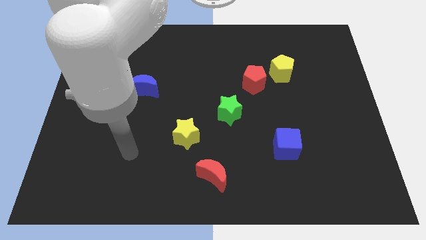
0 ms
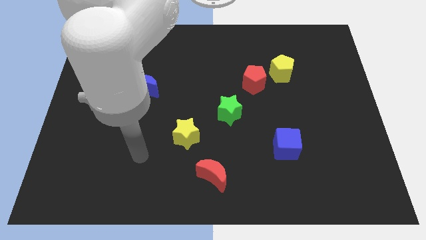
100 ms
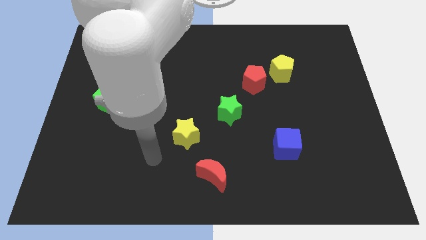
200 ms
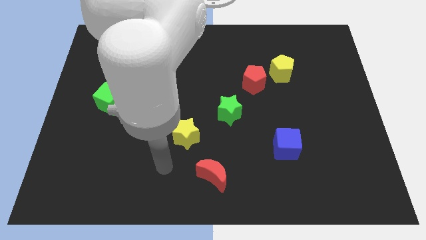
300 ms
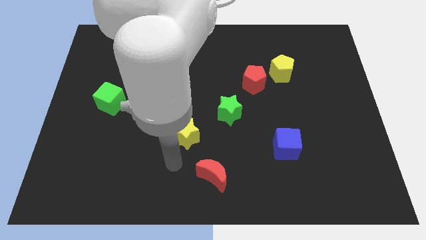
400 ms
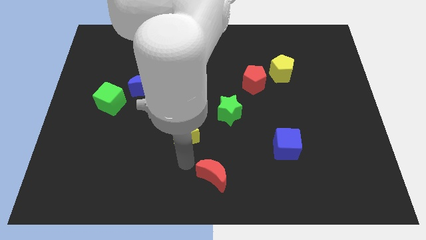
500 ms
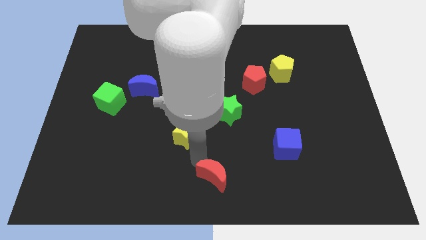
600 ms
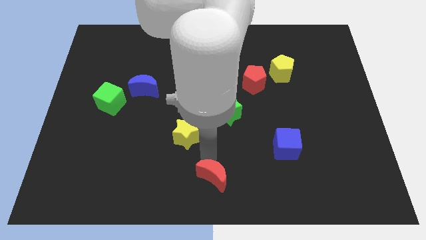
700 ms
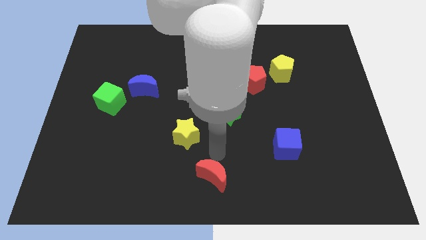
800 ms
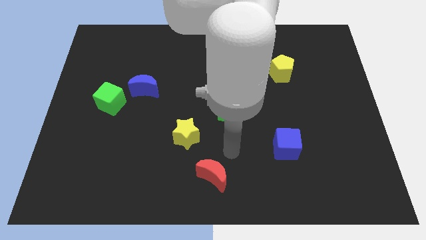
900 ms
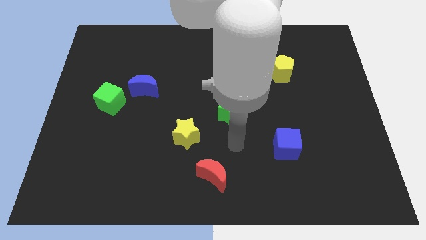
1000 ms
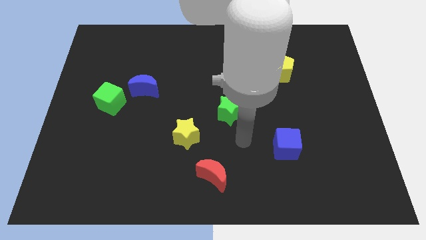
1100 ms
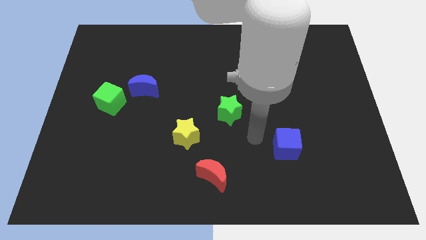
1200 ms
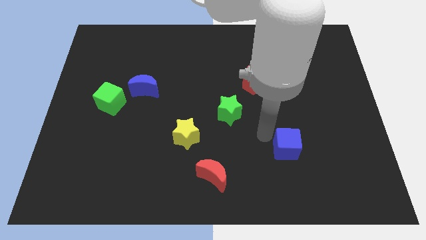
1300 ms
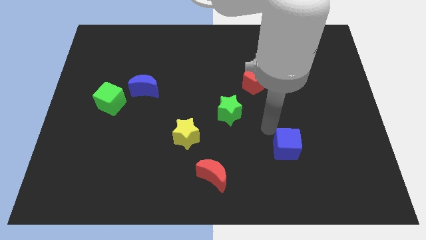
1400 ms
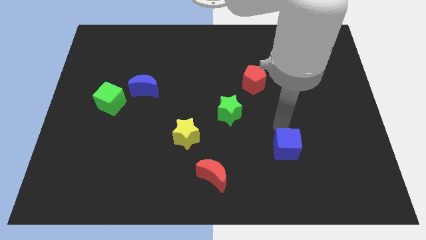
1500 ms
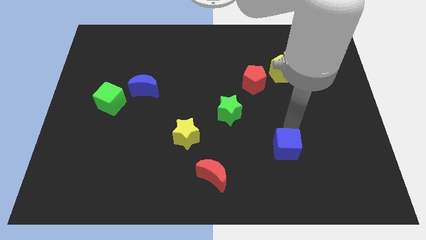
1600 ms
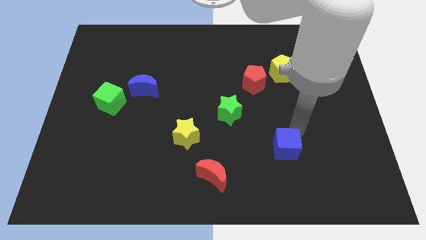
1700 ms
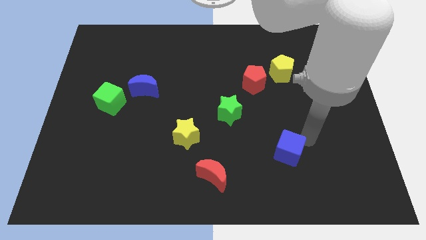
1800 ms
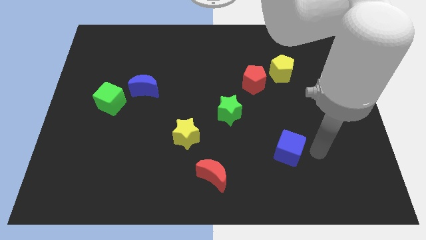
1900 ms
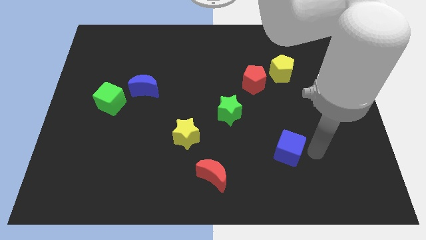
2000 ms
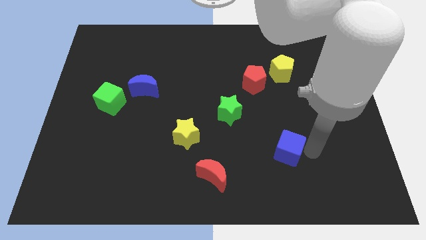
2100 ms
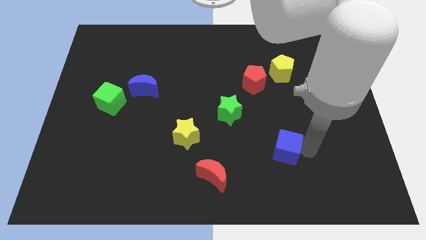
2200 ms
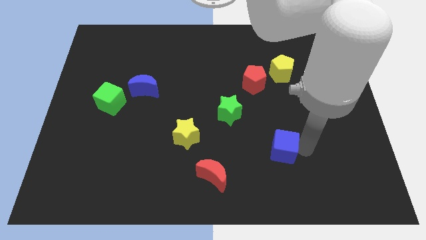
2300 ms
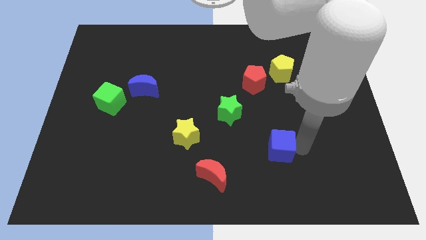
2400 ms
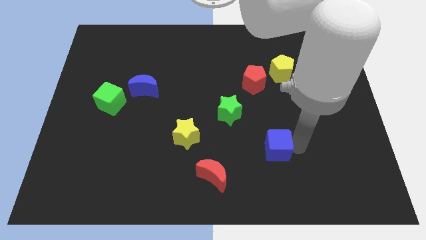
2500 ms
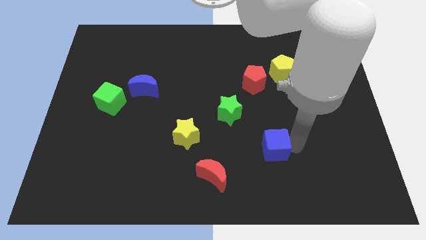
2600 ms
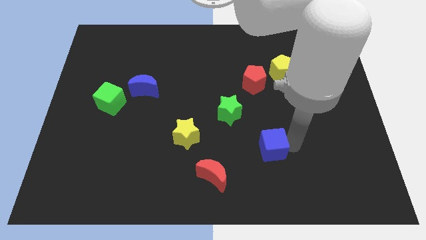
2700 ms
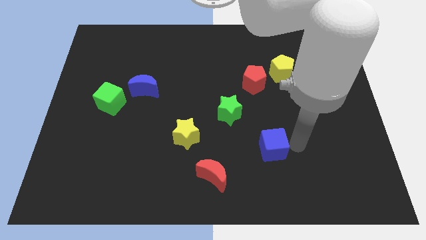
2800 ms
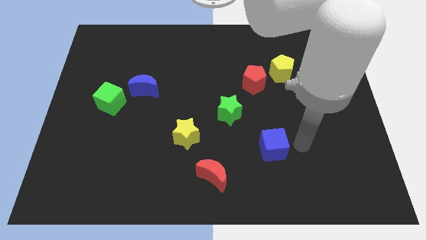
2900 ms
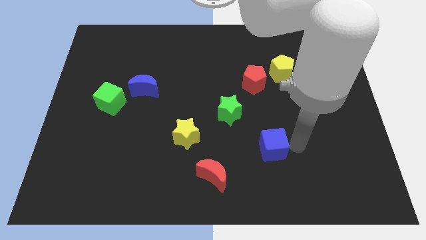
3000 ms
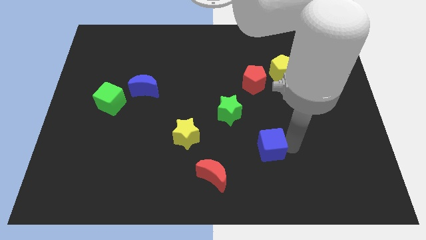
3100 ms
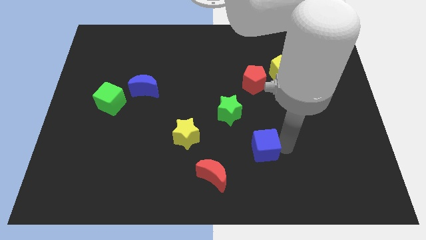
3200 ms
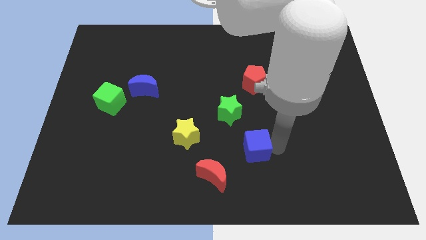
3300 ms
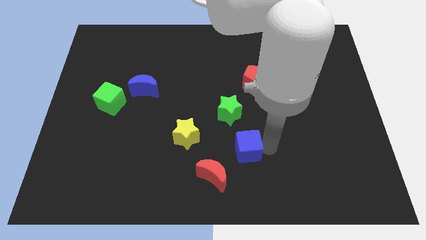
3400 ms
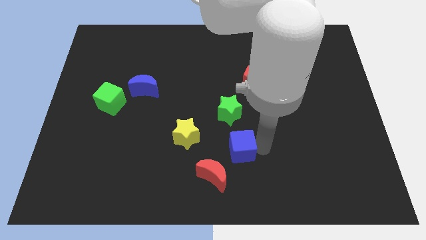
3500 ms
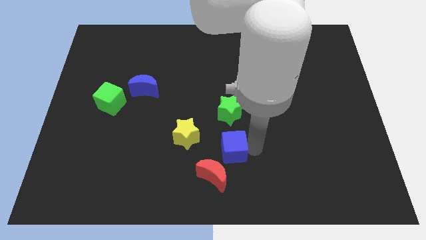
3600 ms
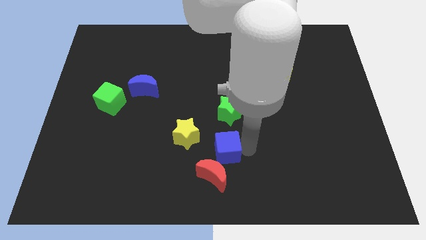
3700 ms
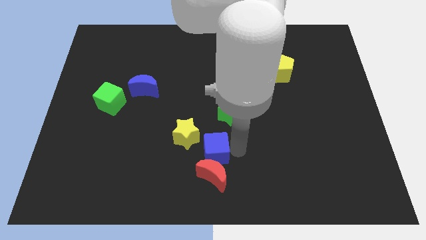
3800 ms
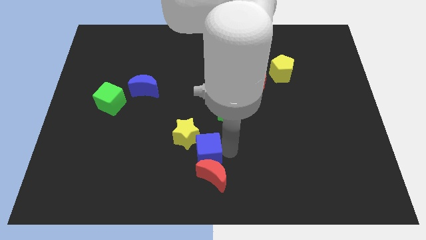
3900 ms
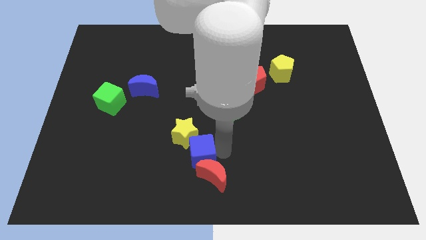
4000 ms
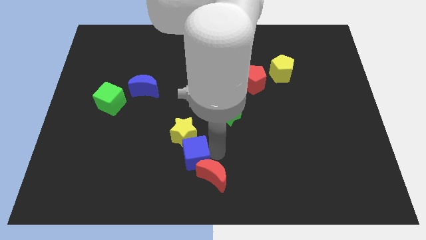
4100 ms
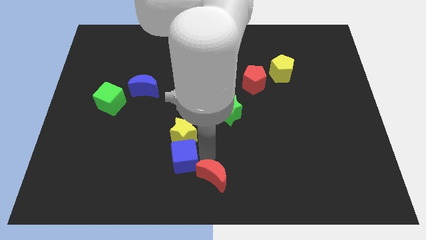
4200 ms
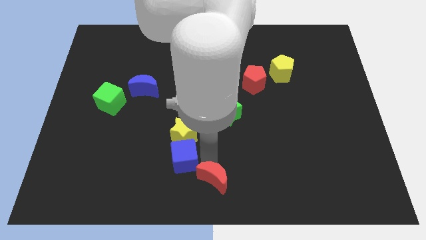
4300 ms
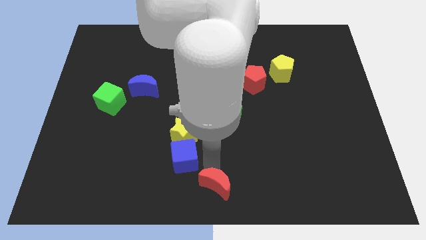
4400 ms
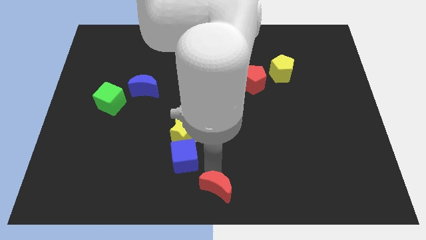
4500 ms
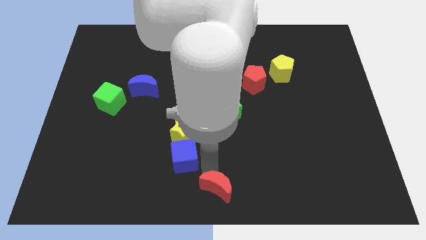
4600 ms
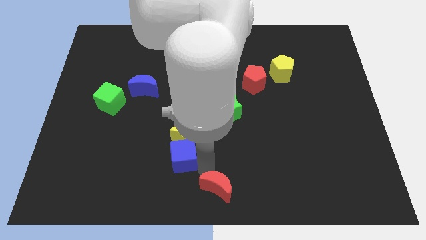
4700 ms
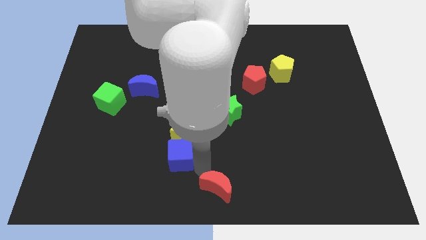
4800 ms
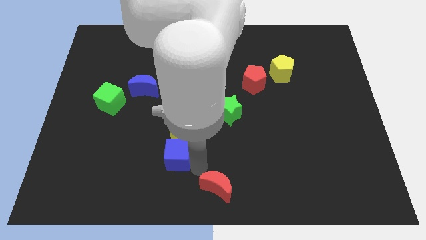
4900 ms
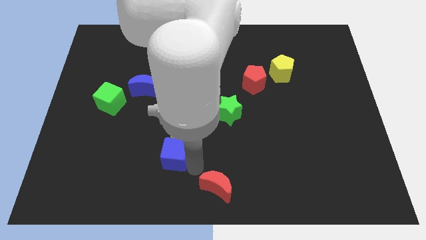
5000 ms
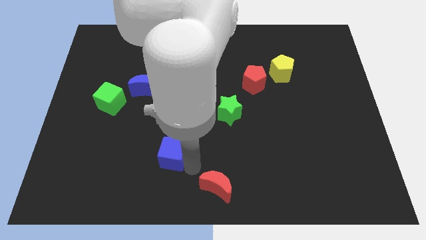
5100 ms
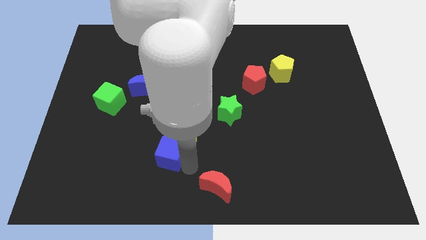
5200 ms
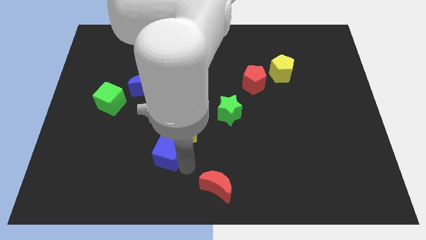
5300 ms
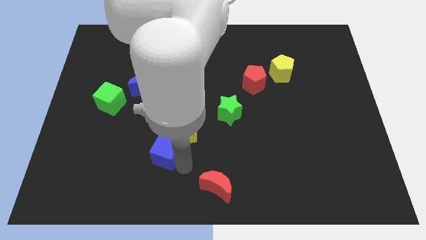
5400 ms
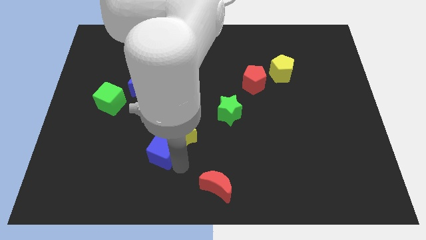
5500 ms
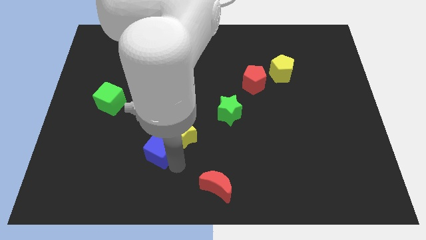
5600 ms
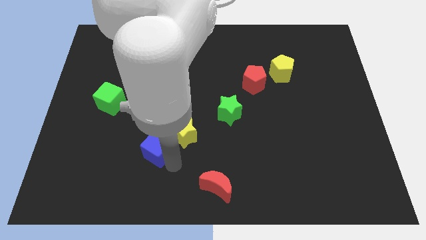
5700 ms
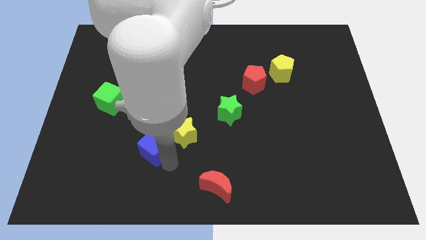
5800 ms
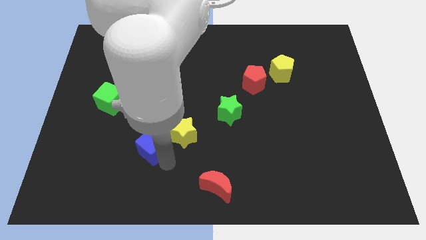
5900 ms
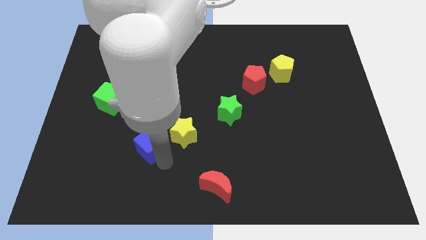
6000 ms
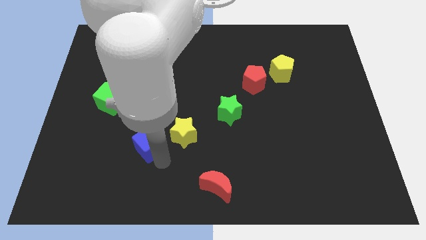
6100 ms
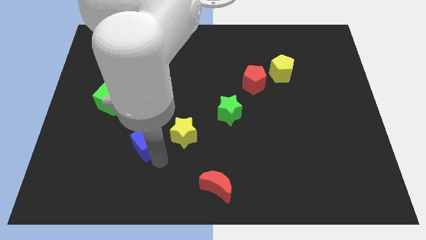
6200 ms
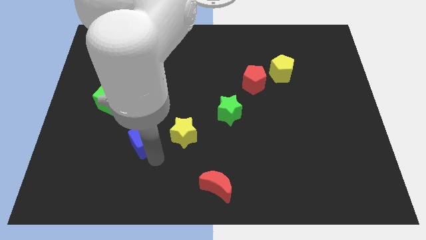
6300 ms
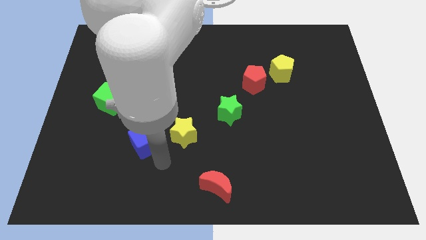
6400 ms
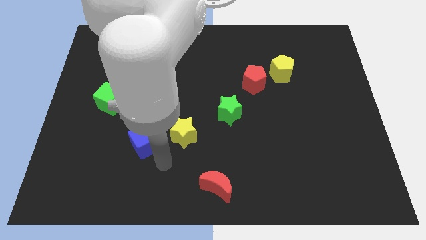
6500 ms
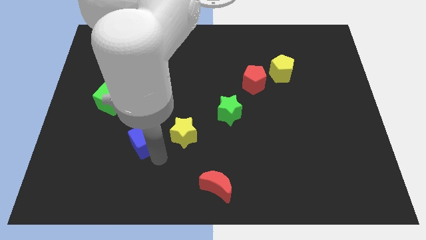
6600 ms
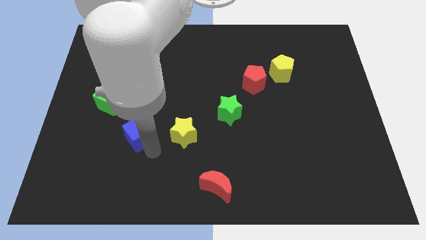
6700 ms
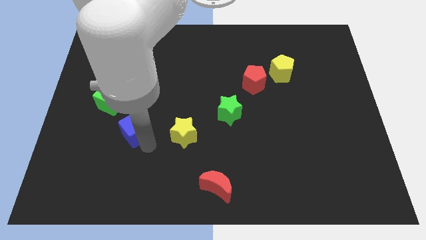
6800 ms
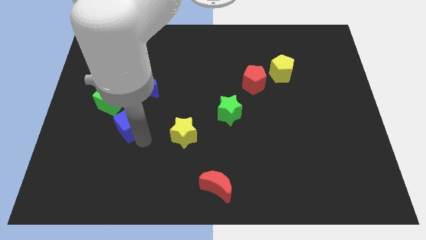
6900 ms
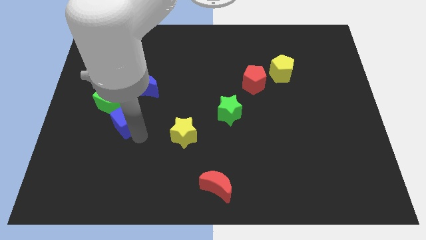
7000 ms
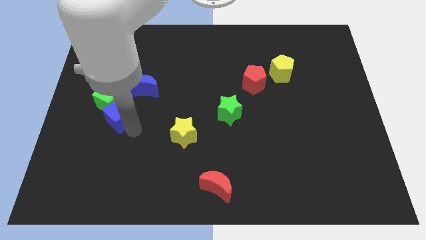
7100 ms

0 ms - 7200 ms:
put the blue cube close to the green cube

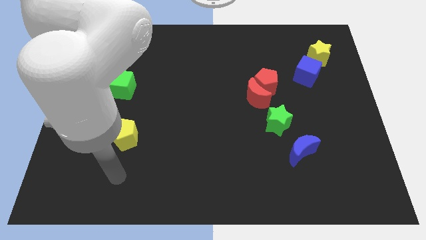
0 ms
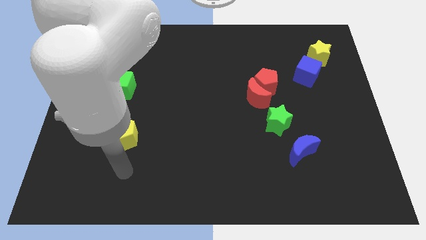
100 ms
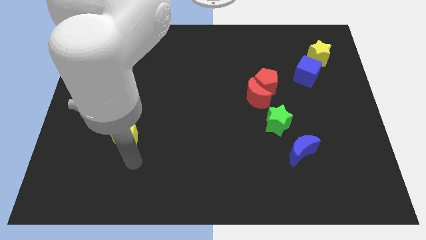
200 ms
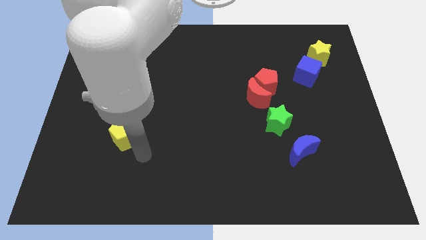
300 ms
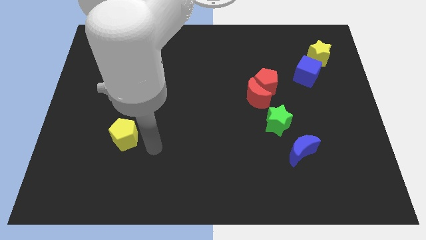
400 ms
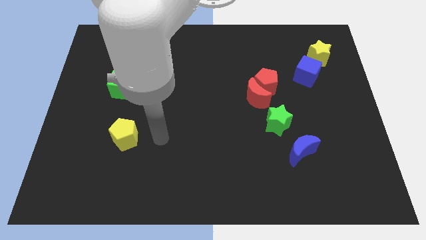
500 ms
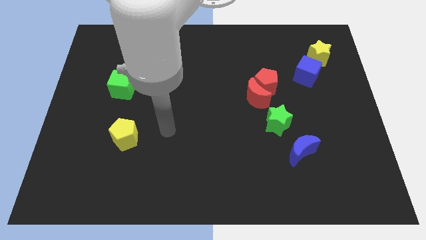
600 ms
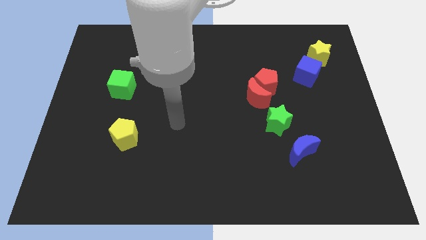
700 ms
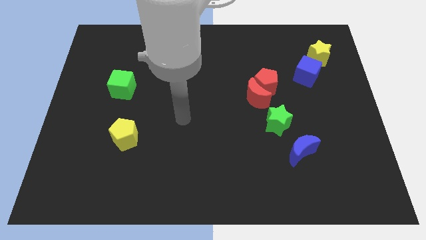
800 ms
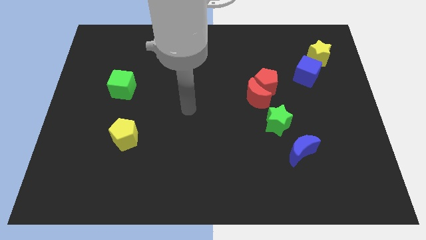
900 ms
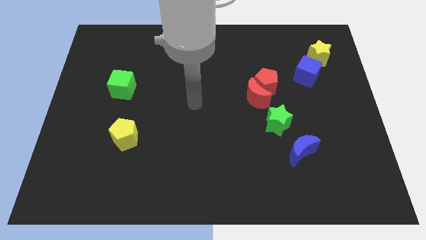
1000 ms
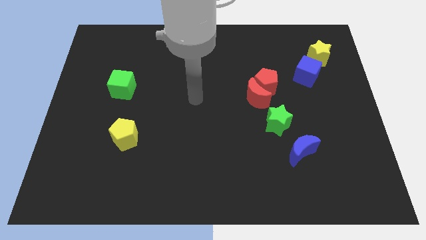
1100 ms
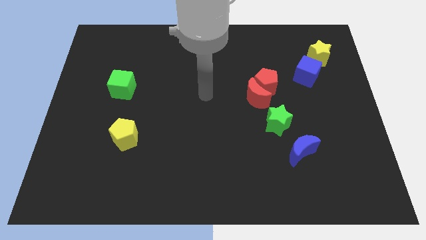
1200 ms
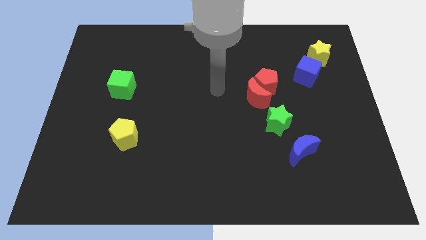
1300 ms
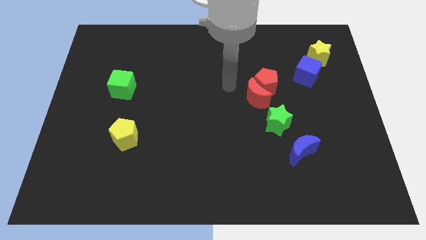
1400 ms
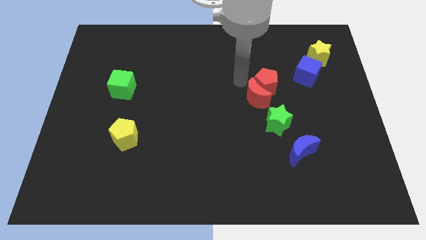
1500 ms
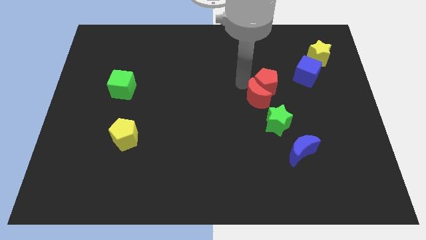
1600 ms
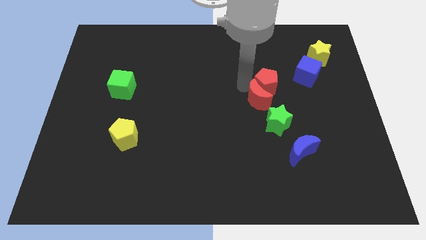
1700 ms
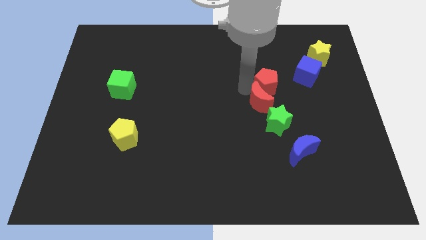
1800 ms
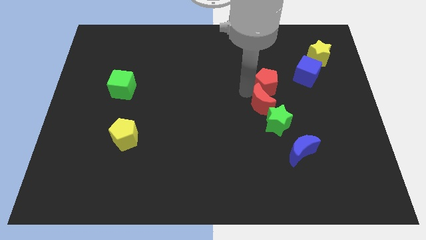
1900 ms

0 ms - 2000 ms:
slide the red moon towards the green star
